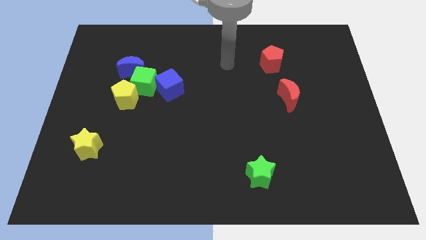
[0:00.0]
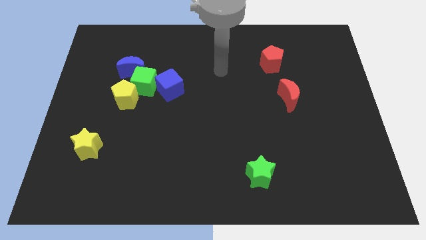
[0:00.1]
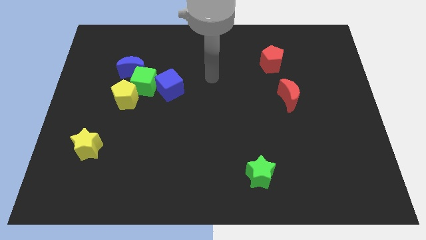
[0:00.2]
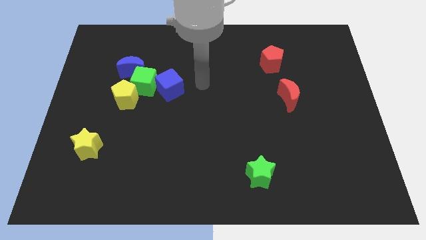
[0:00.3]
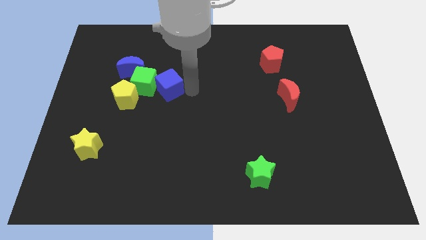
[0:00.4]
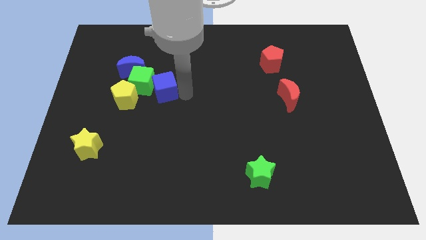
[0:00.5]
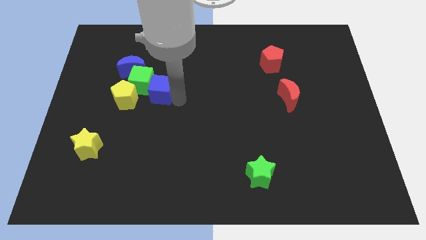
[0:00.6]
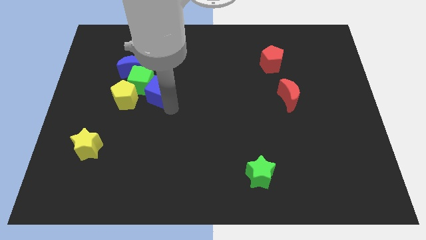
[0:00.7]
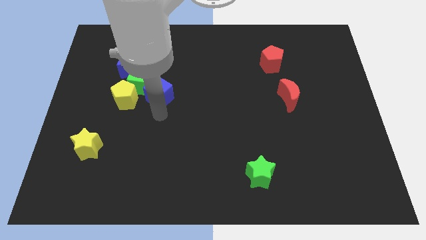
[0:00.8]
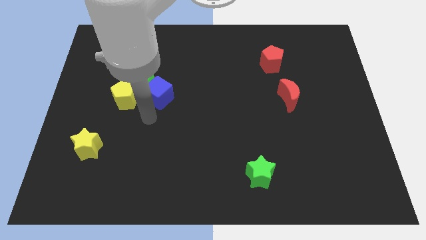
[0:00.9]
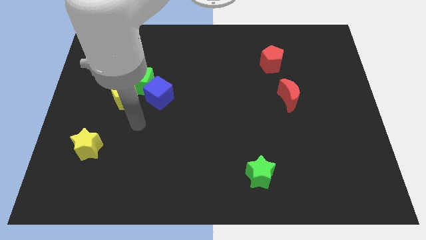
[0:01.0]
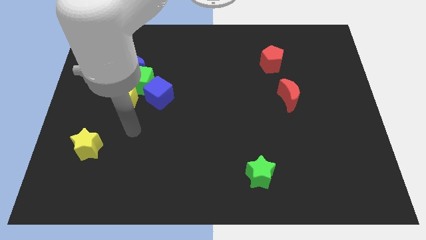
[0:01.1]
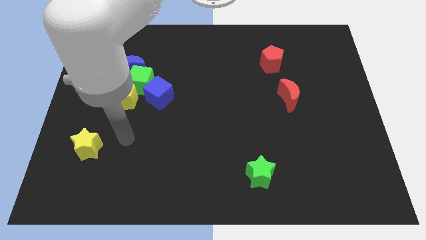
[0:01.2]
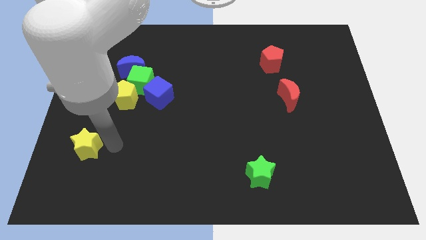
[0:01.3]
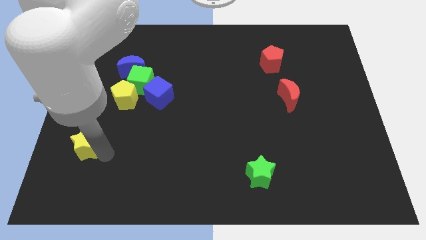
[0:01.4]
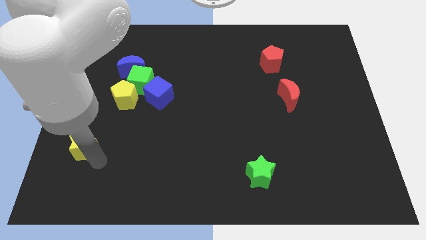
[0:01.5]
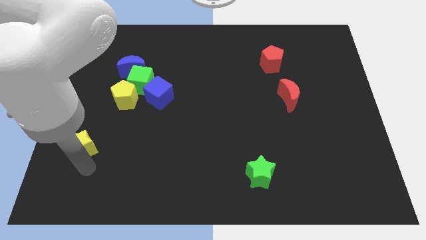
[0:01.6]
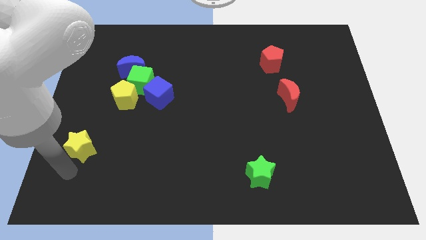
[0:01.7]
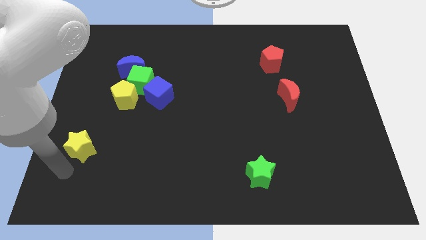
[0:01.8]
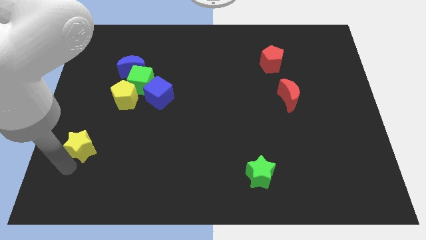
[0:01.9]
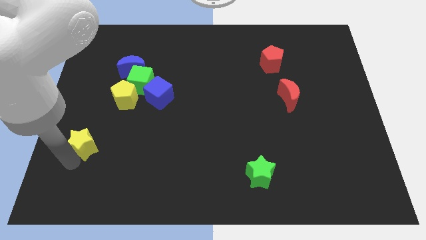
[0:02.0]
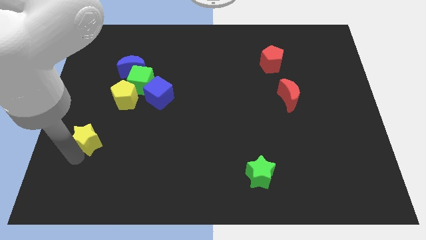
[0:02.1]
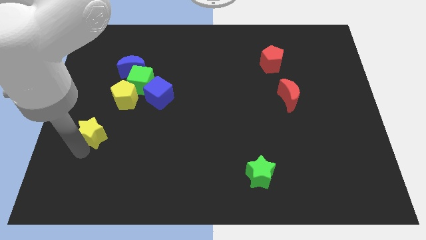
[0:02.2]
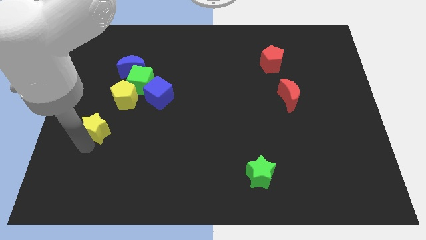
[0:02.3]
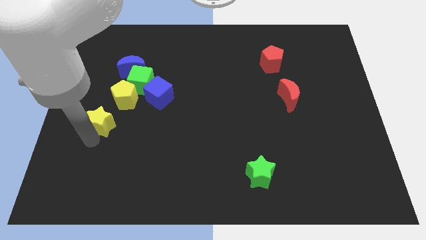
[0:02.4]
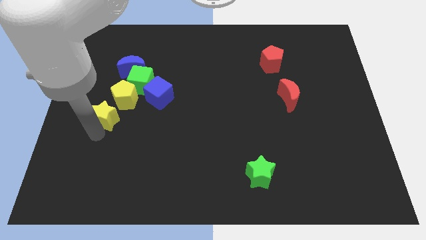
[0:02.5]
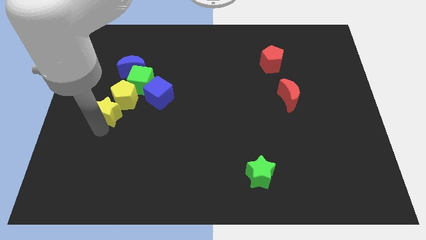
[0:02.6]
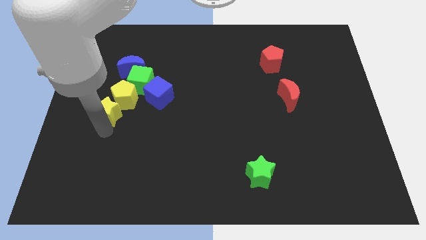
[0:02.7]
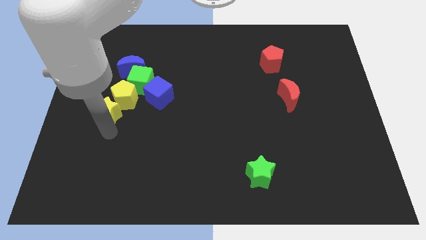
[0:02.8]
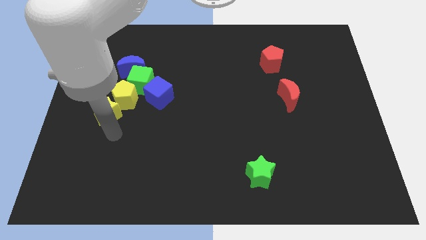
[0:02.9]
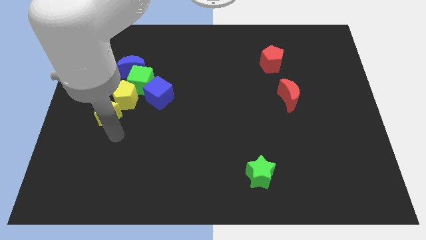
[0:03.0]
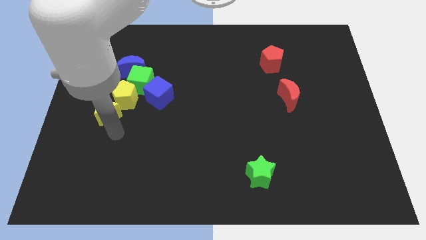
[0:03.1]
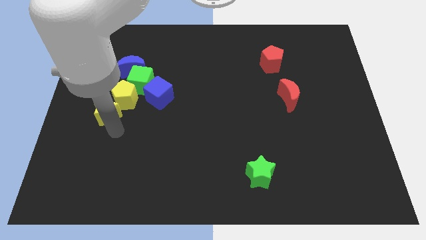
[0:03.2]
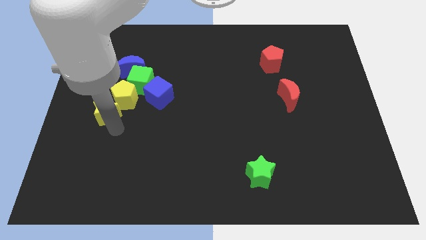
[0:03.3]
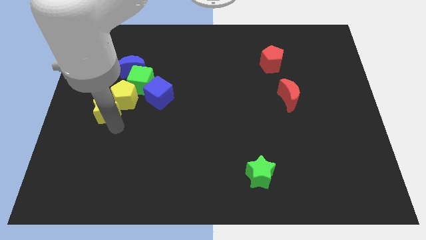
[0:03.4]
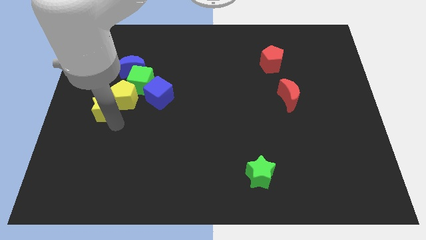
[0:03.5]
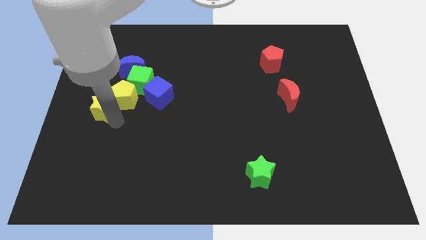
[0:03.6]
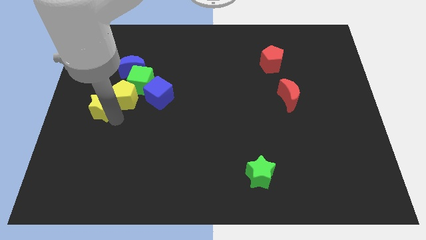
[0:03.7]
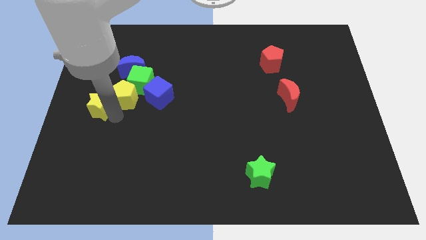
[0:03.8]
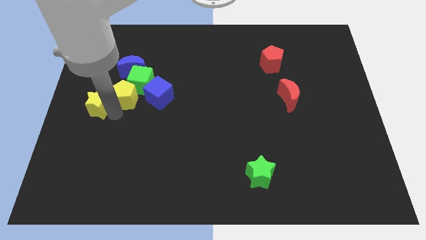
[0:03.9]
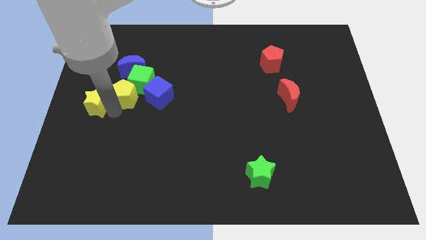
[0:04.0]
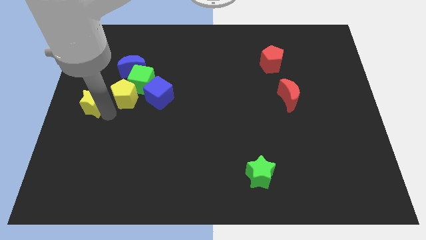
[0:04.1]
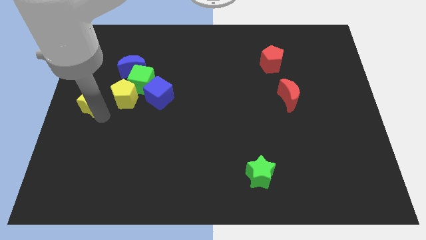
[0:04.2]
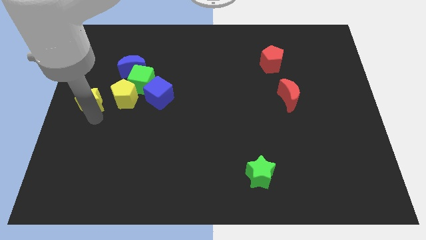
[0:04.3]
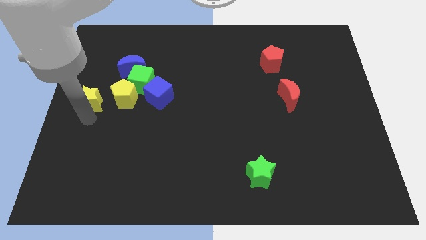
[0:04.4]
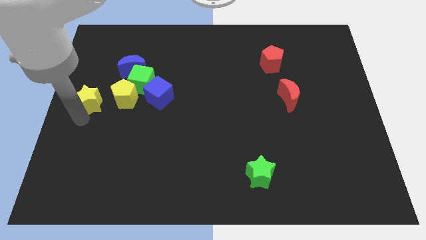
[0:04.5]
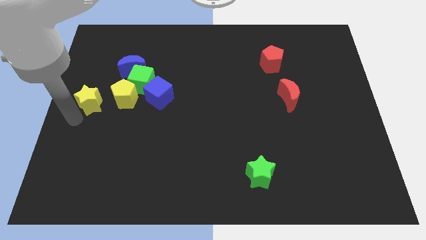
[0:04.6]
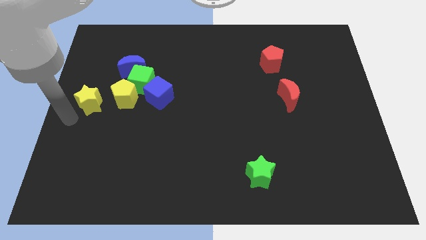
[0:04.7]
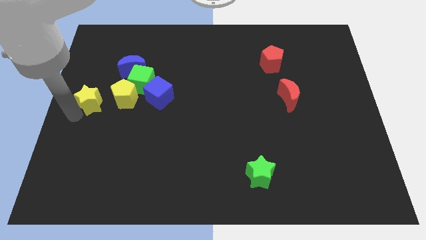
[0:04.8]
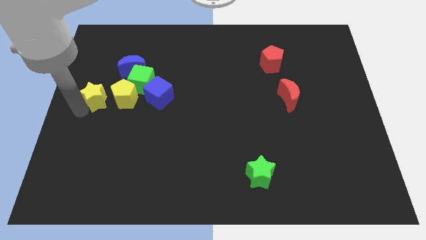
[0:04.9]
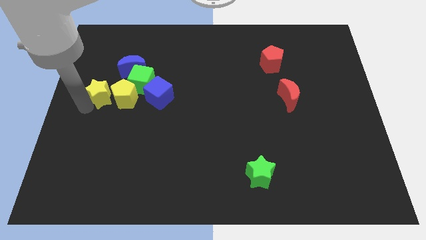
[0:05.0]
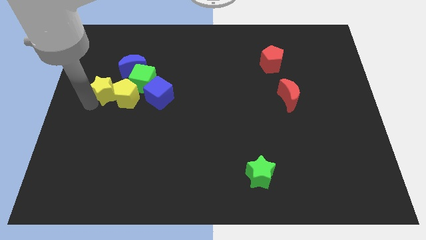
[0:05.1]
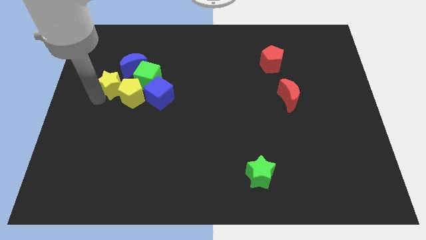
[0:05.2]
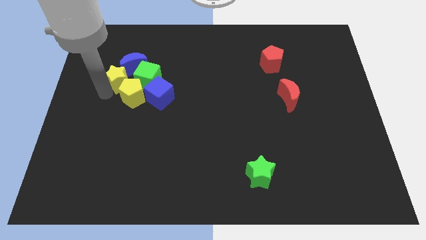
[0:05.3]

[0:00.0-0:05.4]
push the yellow star towards the blue moon
